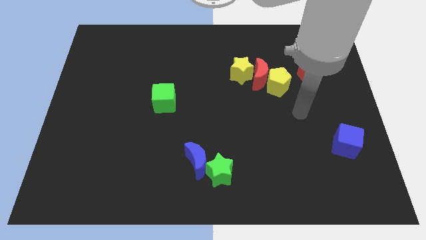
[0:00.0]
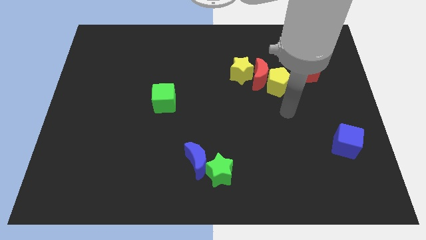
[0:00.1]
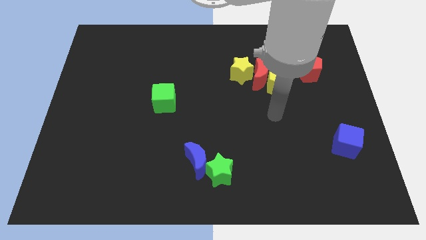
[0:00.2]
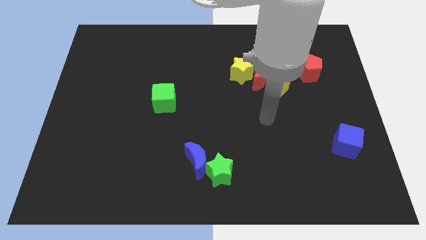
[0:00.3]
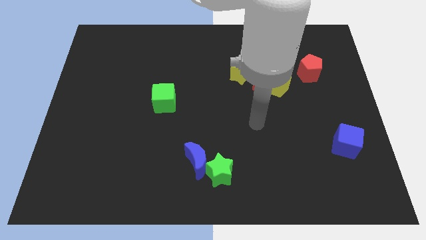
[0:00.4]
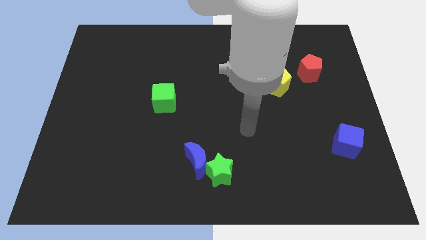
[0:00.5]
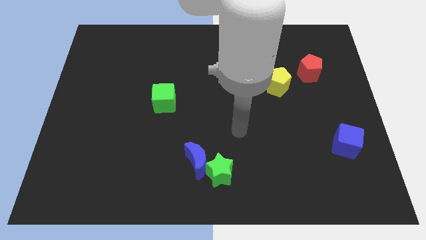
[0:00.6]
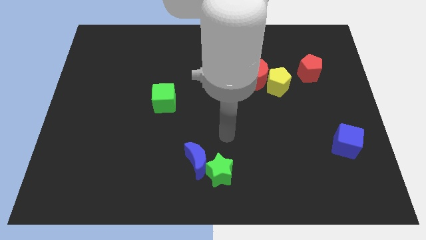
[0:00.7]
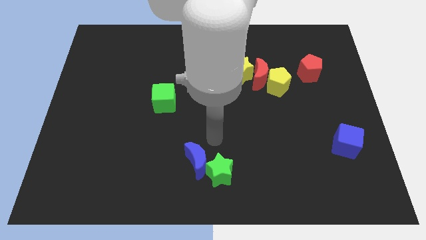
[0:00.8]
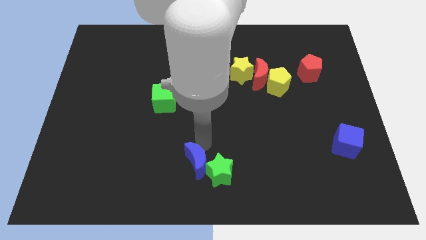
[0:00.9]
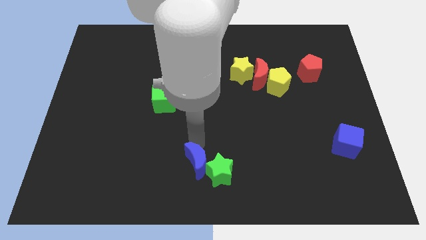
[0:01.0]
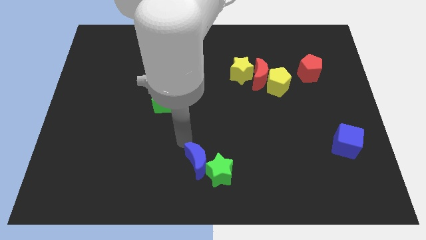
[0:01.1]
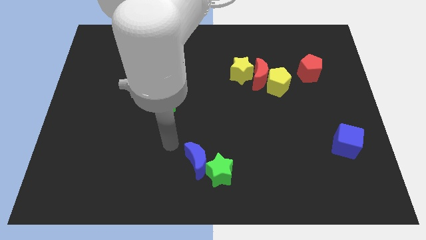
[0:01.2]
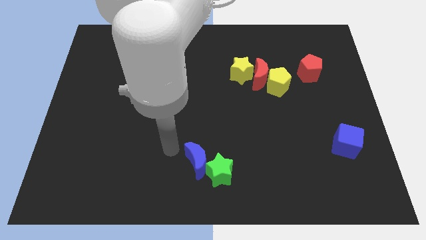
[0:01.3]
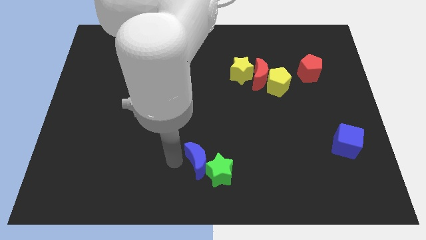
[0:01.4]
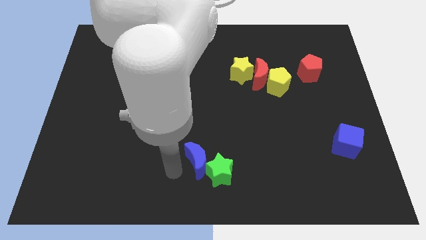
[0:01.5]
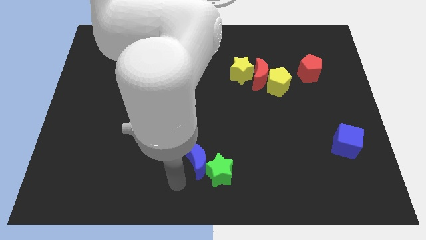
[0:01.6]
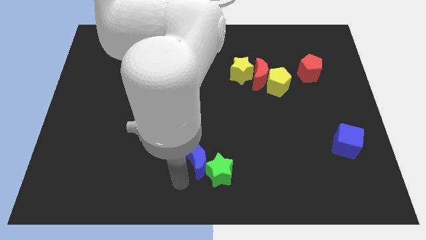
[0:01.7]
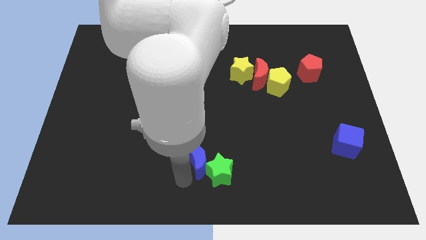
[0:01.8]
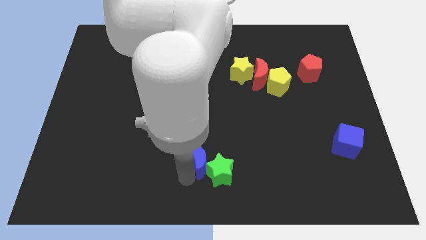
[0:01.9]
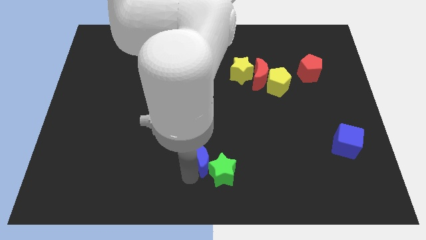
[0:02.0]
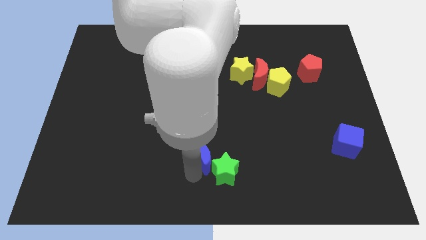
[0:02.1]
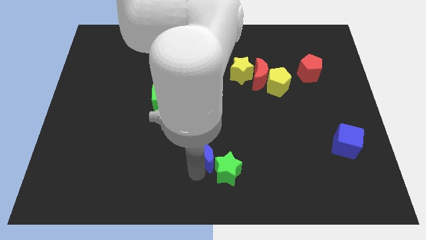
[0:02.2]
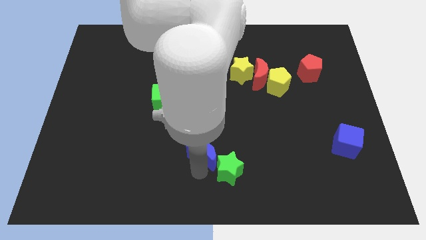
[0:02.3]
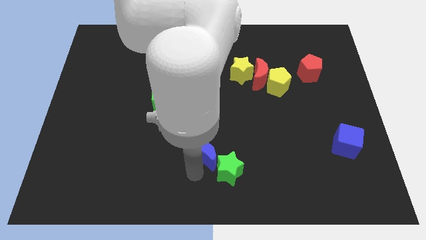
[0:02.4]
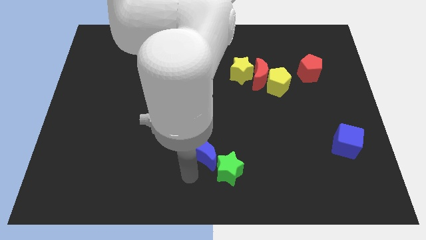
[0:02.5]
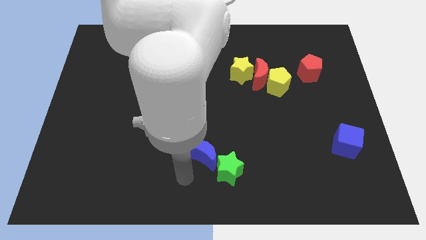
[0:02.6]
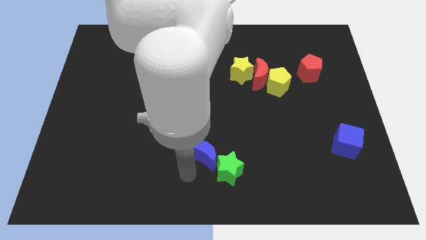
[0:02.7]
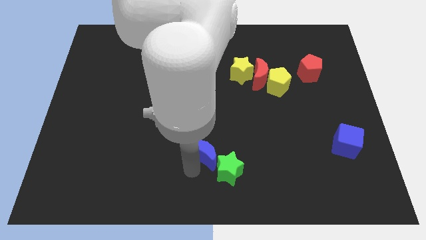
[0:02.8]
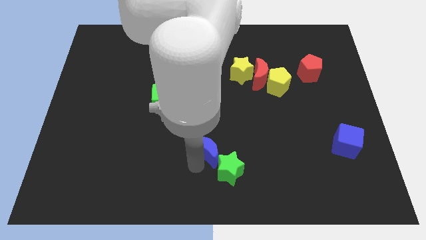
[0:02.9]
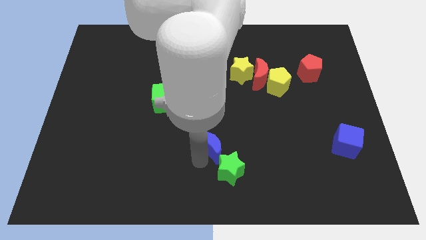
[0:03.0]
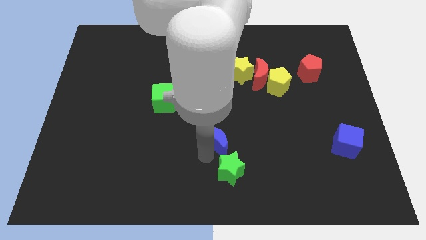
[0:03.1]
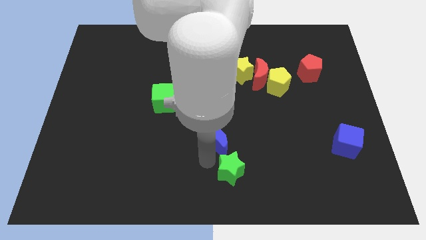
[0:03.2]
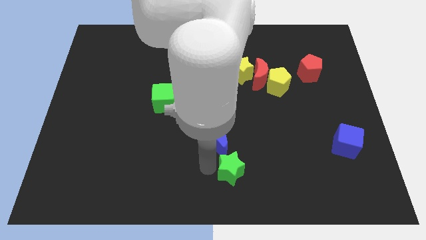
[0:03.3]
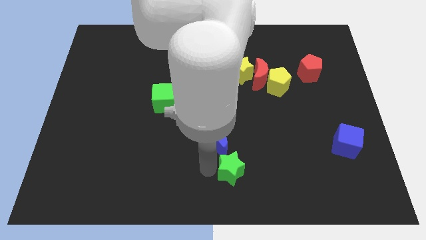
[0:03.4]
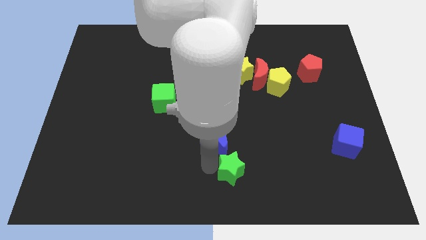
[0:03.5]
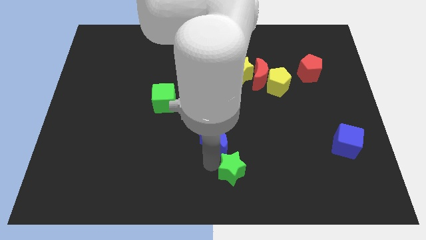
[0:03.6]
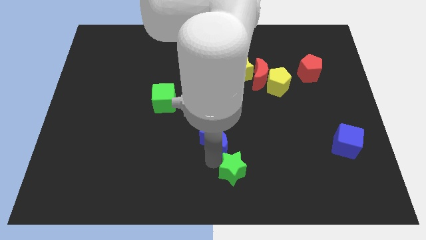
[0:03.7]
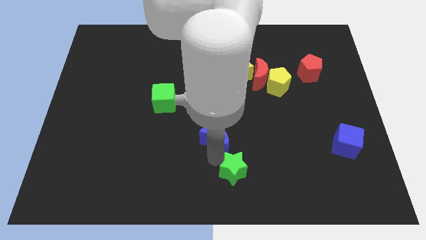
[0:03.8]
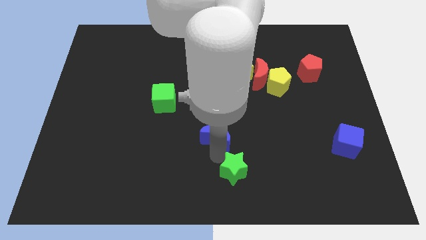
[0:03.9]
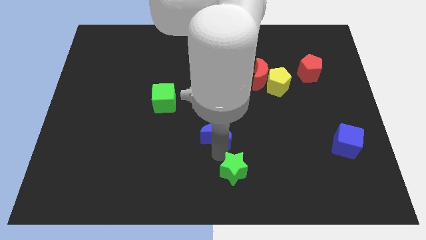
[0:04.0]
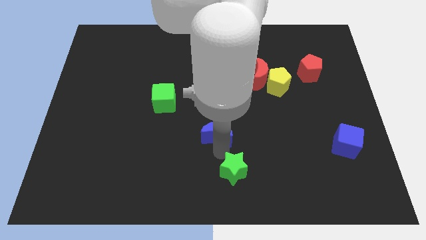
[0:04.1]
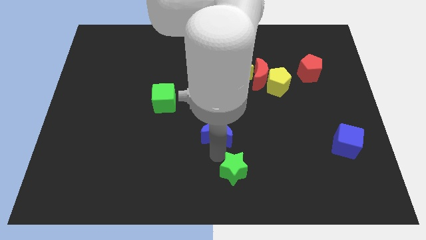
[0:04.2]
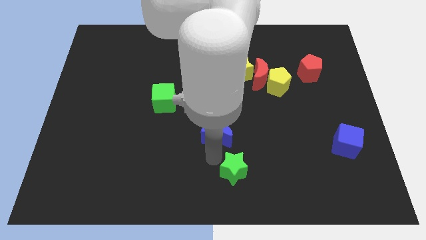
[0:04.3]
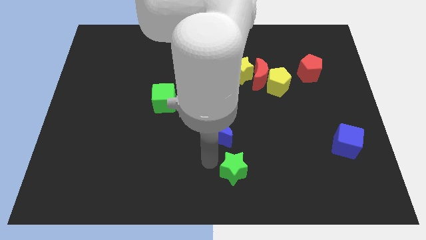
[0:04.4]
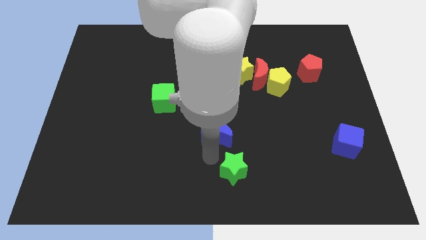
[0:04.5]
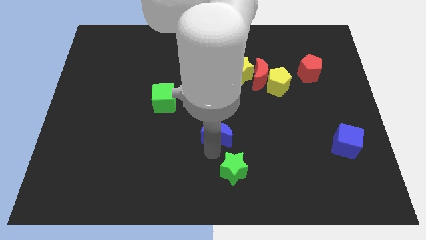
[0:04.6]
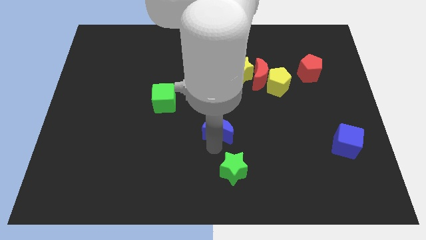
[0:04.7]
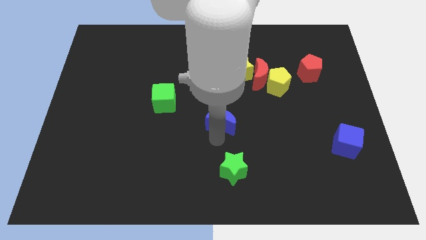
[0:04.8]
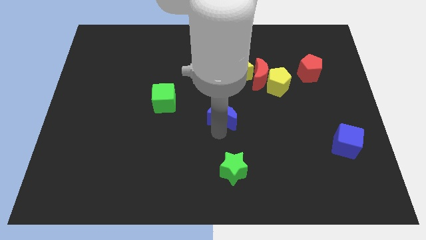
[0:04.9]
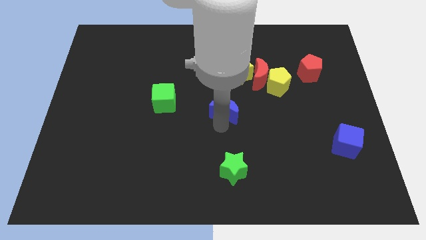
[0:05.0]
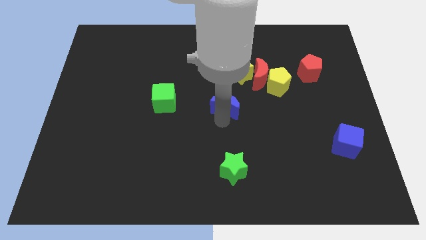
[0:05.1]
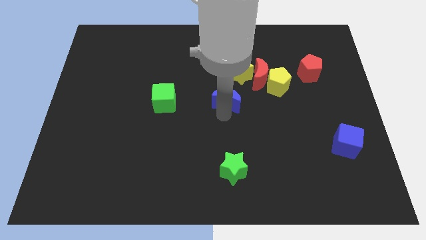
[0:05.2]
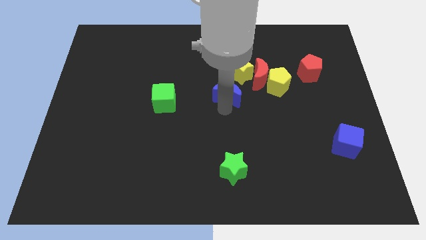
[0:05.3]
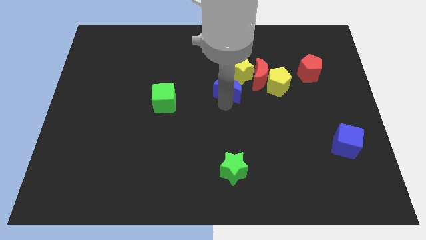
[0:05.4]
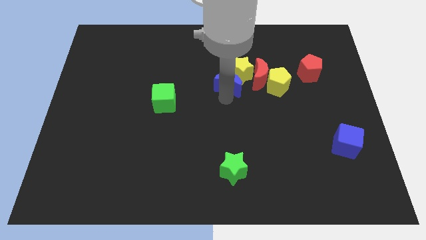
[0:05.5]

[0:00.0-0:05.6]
move the blue moon close to the yellow star

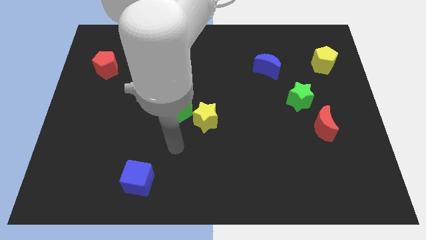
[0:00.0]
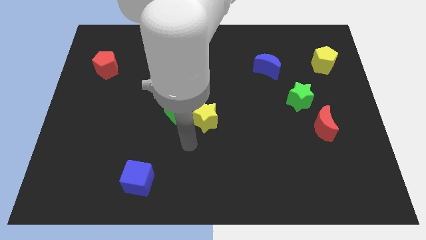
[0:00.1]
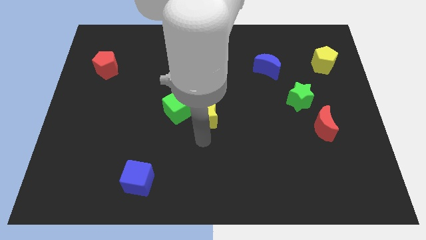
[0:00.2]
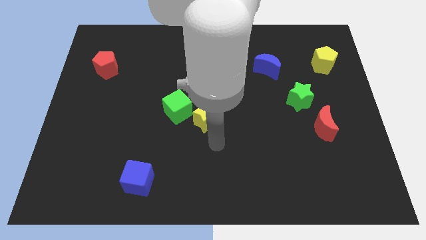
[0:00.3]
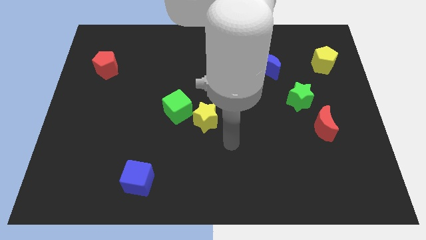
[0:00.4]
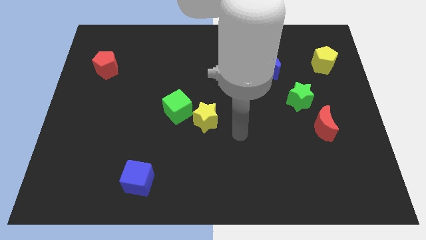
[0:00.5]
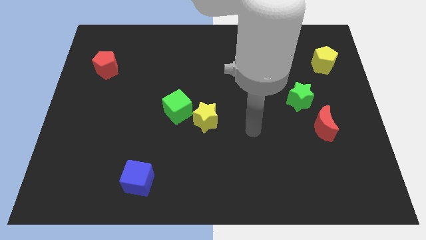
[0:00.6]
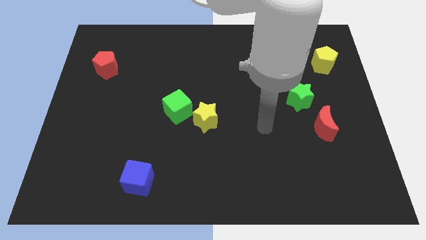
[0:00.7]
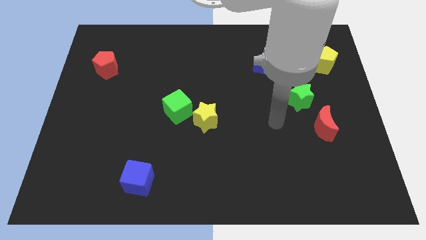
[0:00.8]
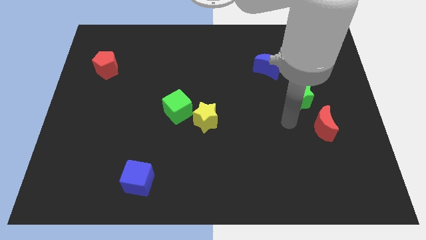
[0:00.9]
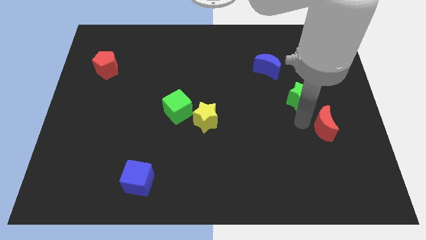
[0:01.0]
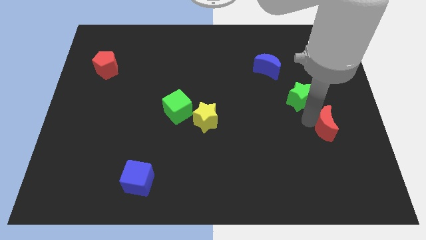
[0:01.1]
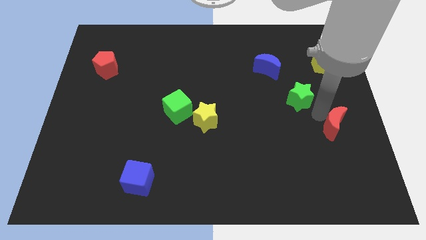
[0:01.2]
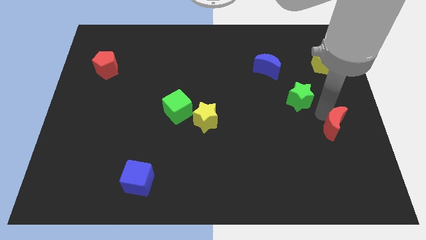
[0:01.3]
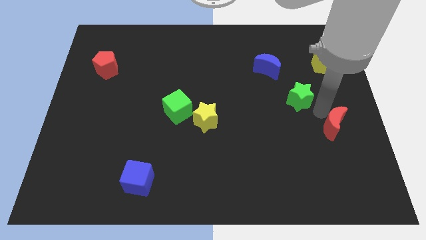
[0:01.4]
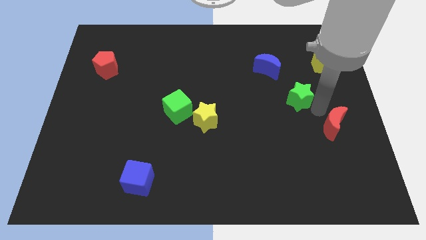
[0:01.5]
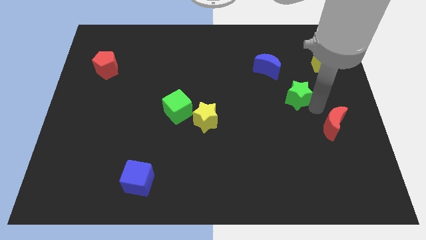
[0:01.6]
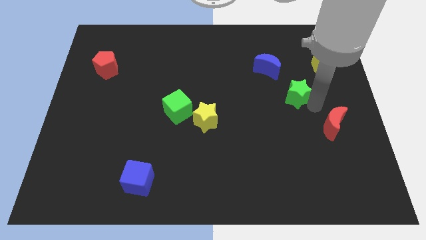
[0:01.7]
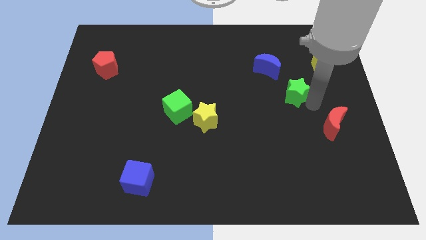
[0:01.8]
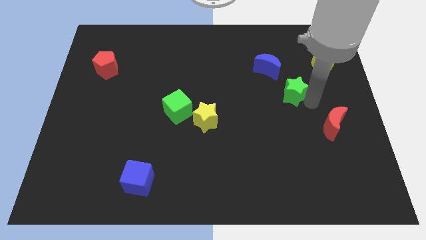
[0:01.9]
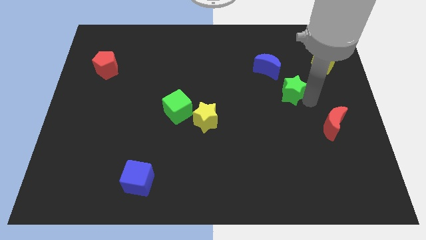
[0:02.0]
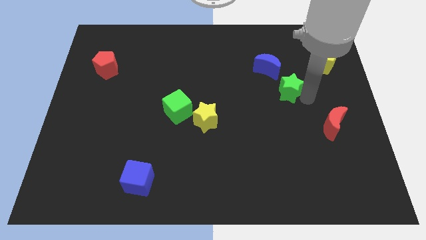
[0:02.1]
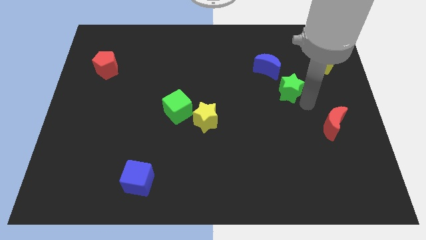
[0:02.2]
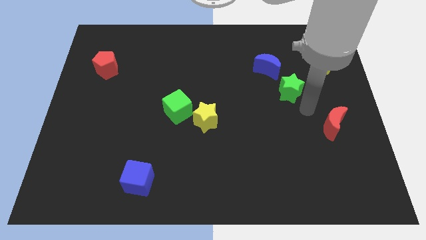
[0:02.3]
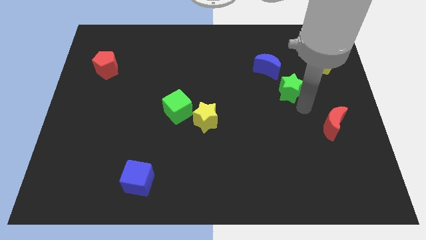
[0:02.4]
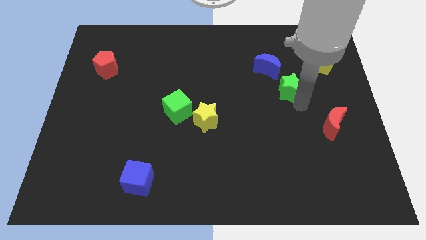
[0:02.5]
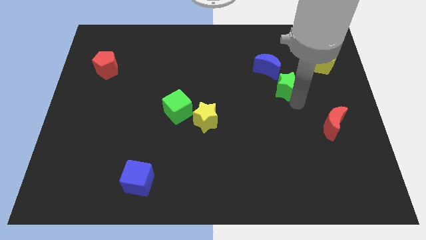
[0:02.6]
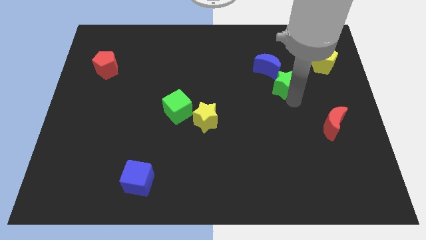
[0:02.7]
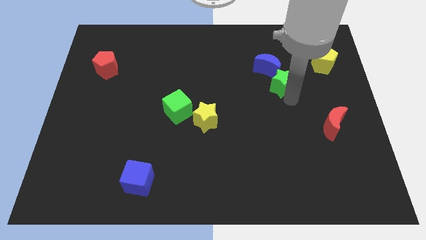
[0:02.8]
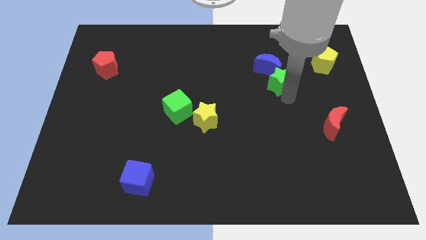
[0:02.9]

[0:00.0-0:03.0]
push the green star close to the blue moon
